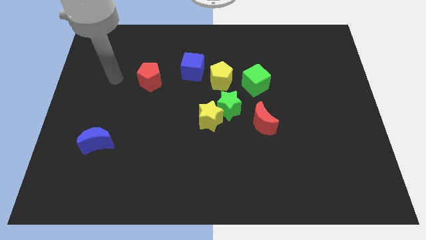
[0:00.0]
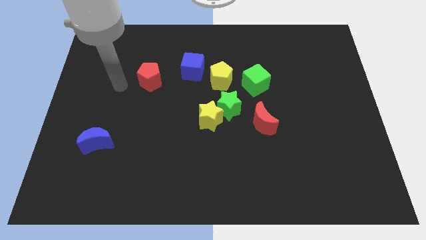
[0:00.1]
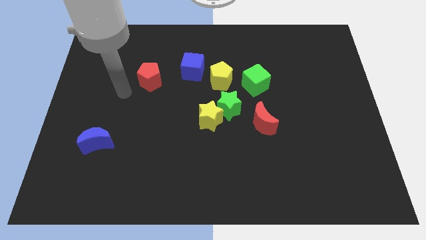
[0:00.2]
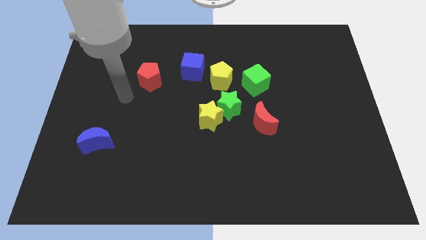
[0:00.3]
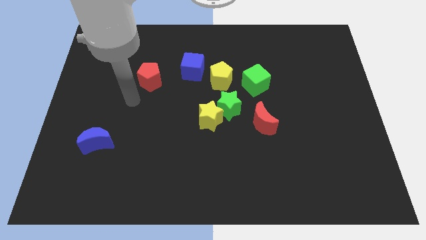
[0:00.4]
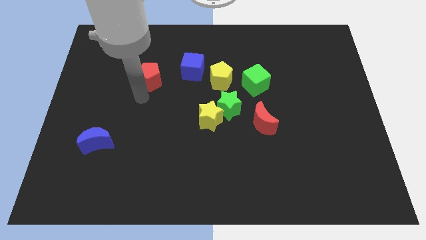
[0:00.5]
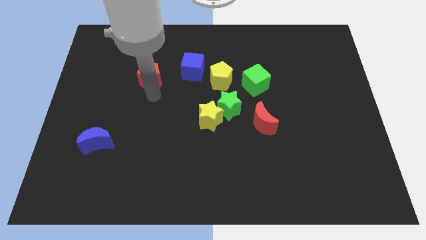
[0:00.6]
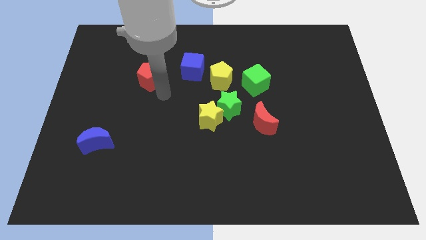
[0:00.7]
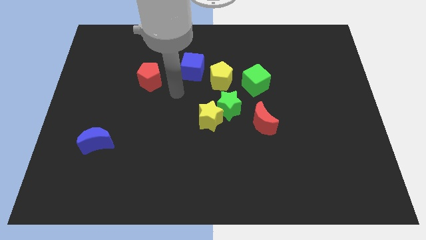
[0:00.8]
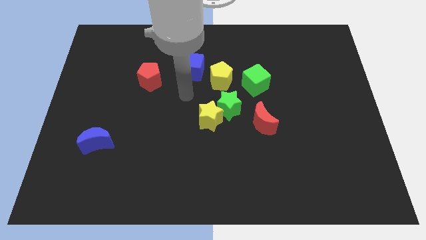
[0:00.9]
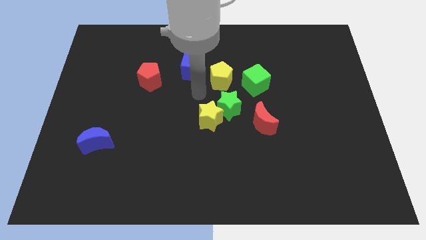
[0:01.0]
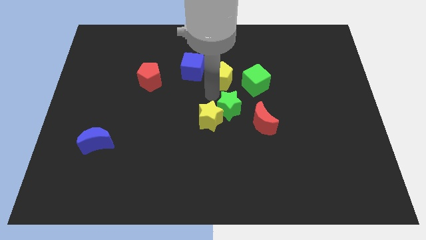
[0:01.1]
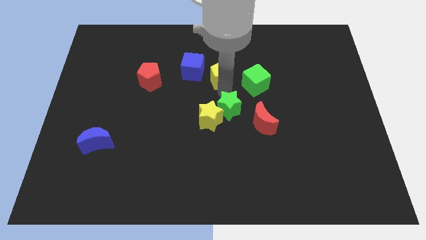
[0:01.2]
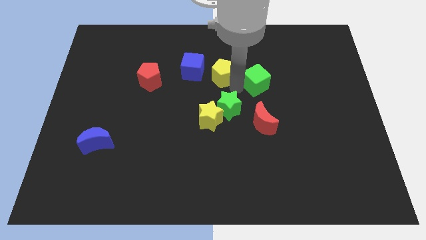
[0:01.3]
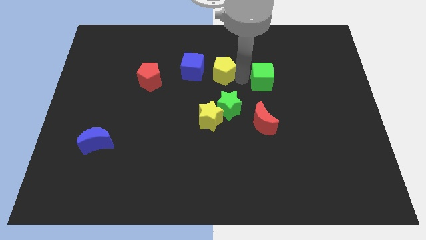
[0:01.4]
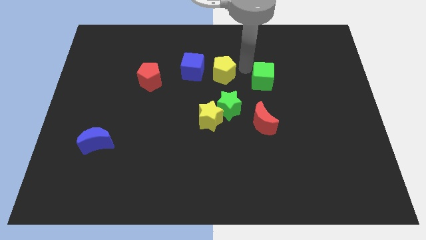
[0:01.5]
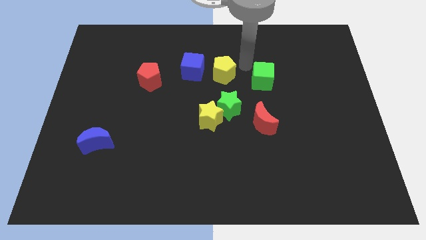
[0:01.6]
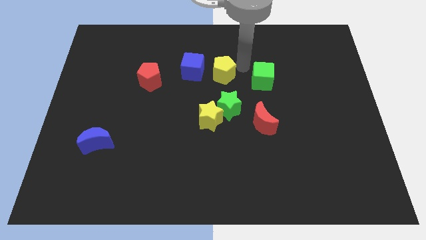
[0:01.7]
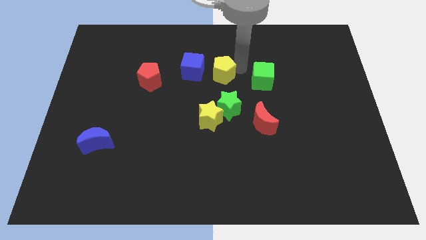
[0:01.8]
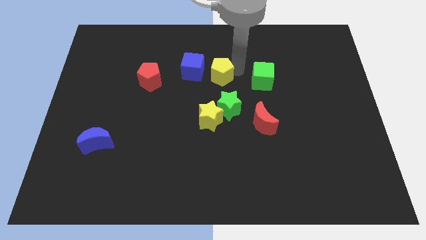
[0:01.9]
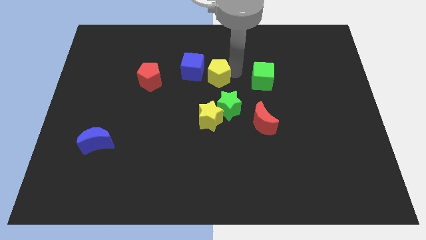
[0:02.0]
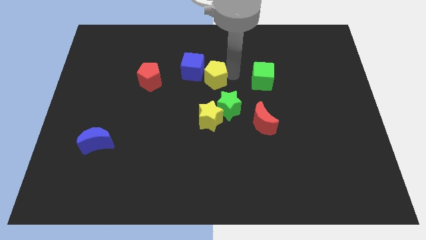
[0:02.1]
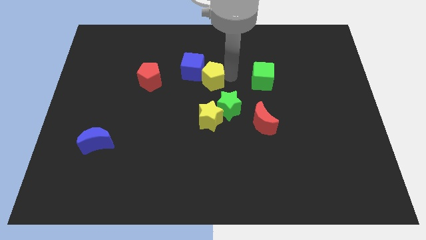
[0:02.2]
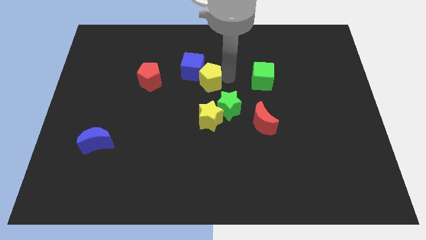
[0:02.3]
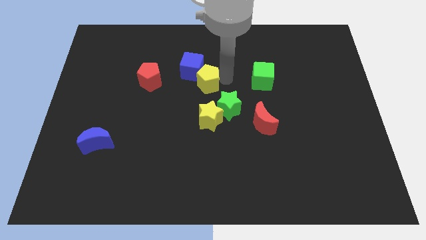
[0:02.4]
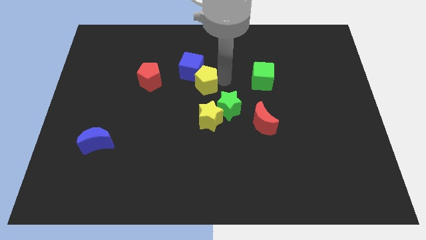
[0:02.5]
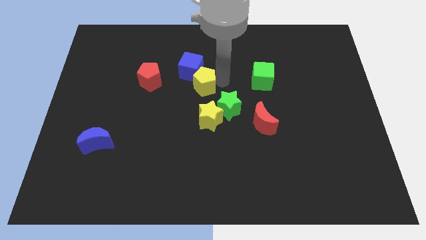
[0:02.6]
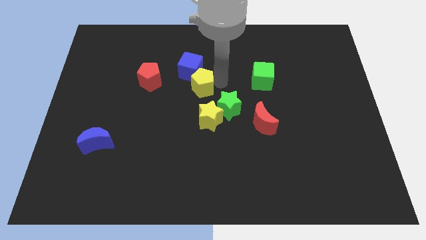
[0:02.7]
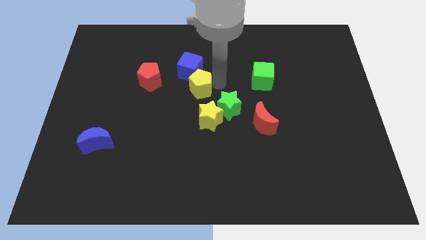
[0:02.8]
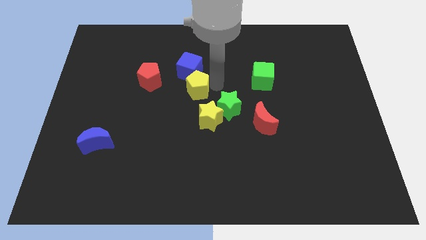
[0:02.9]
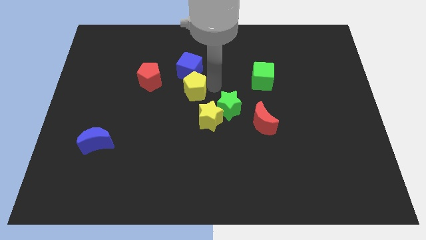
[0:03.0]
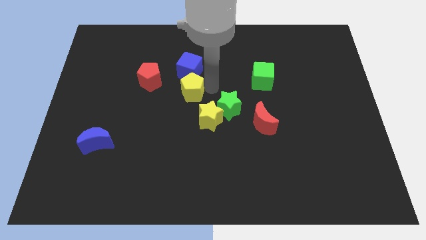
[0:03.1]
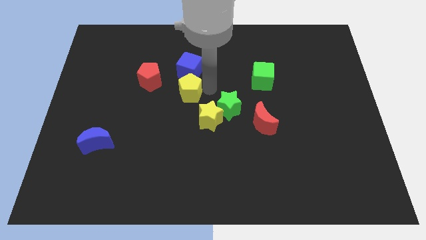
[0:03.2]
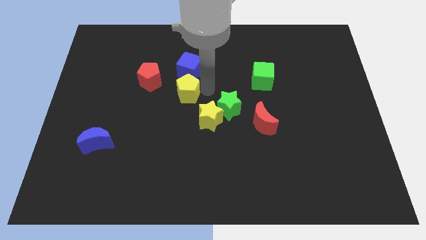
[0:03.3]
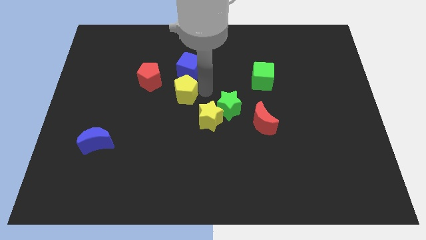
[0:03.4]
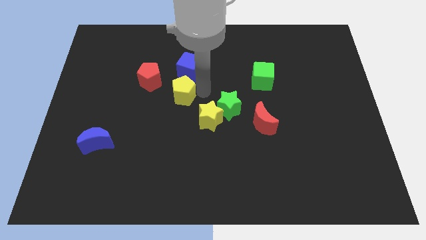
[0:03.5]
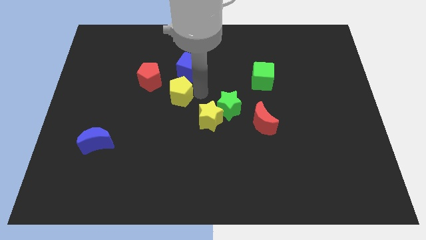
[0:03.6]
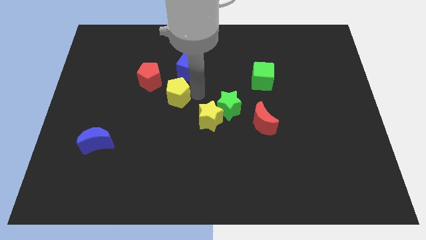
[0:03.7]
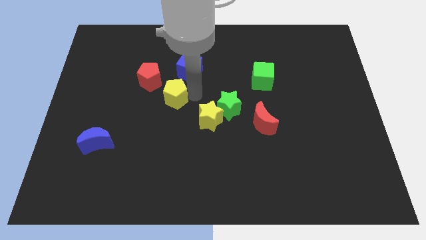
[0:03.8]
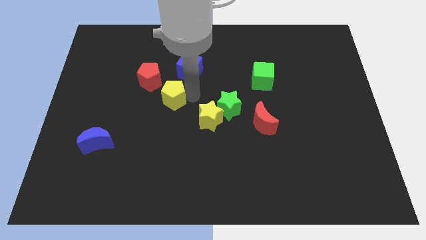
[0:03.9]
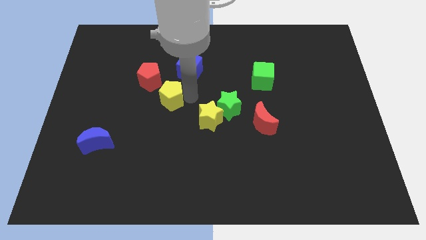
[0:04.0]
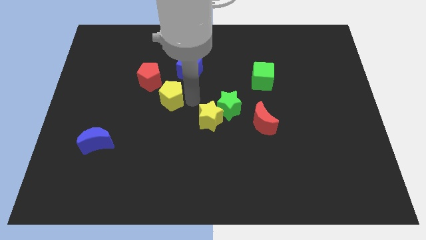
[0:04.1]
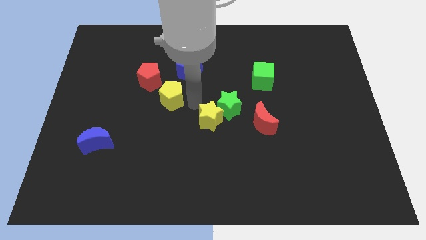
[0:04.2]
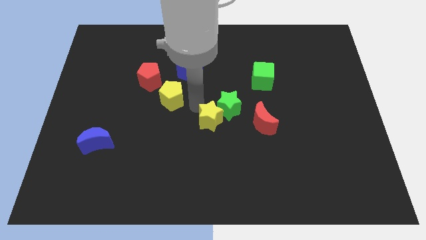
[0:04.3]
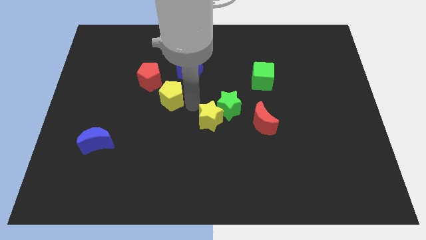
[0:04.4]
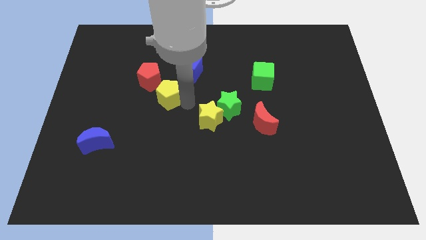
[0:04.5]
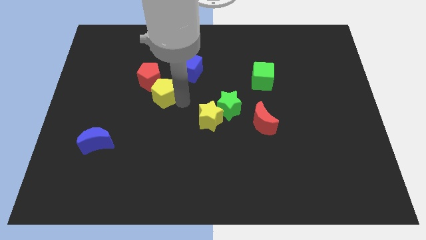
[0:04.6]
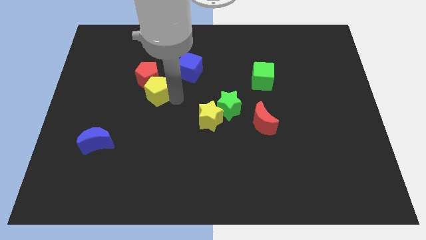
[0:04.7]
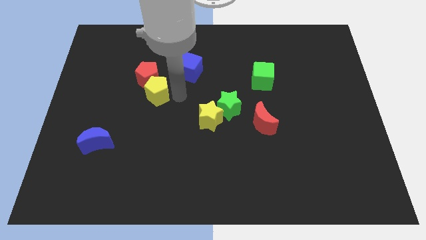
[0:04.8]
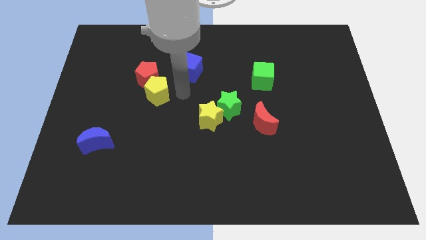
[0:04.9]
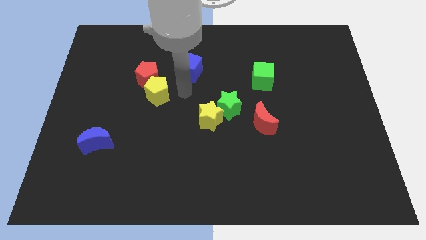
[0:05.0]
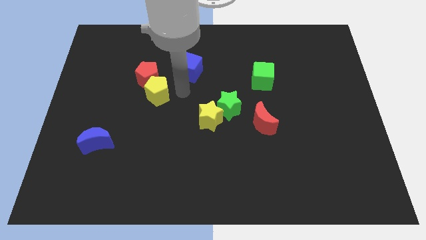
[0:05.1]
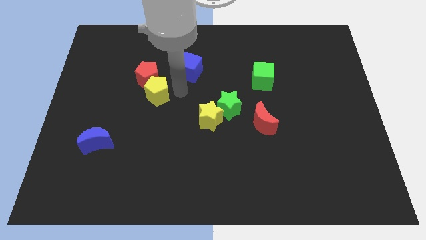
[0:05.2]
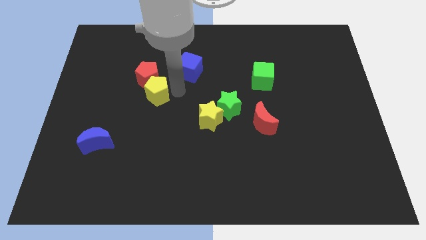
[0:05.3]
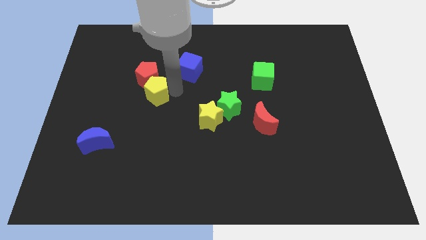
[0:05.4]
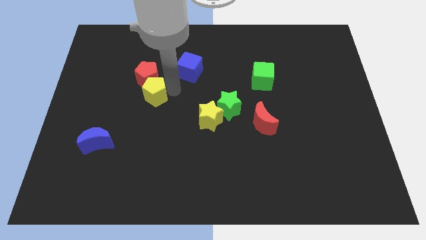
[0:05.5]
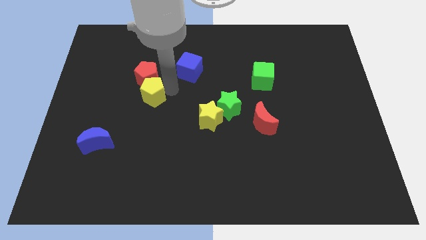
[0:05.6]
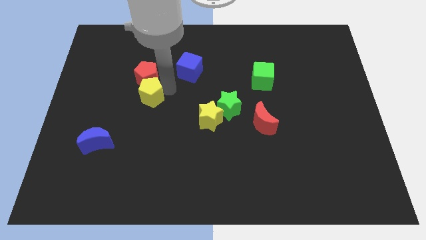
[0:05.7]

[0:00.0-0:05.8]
slide the yellow pentagon diagonally down and to the left of the red pentagon

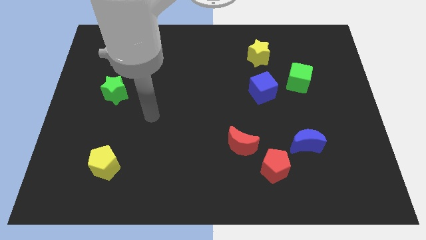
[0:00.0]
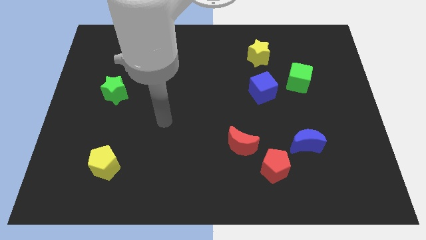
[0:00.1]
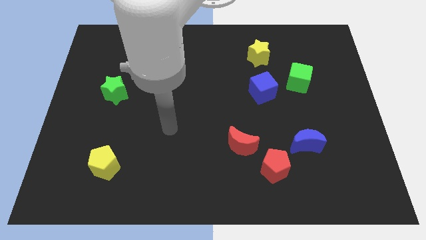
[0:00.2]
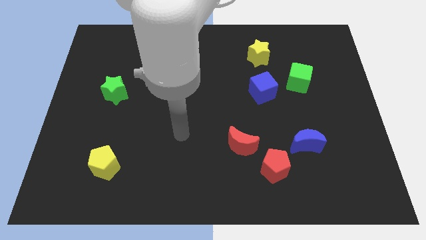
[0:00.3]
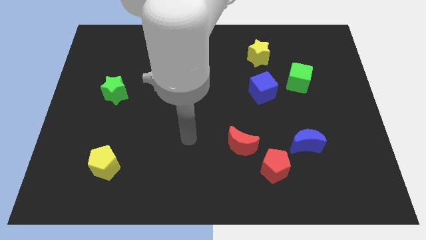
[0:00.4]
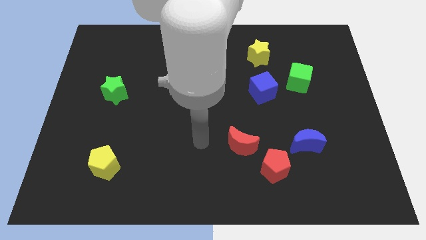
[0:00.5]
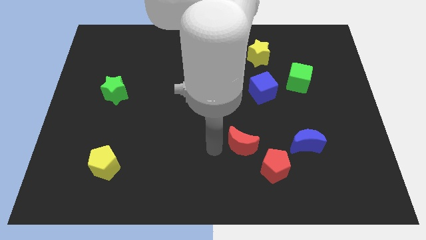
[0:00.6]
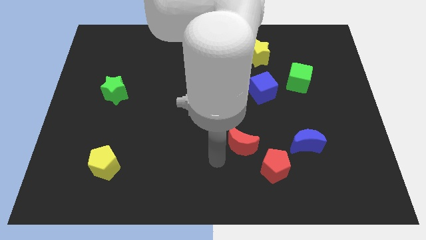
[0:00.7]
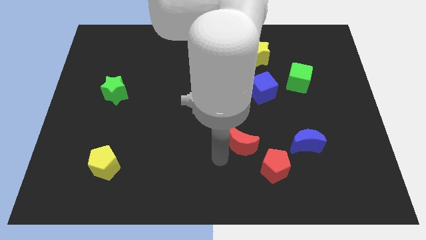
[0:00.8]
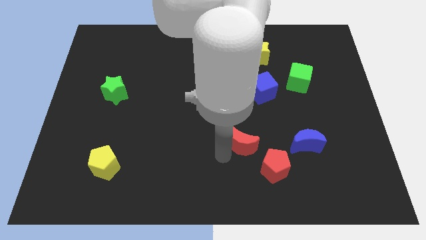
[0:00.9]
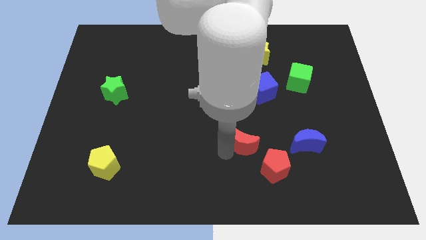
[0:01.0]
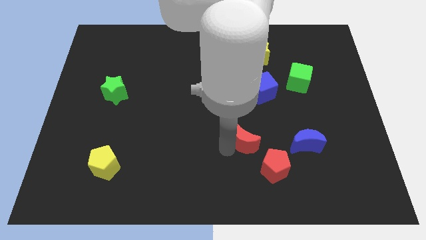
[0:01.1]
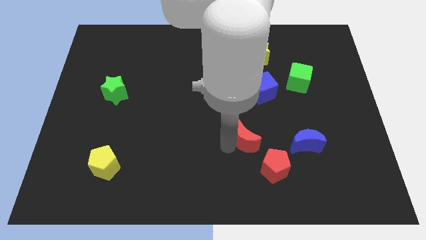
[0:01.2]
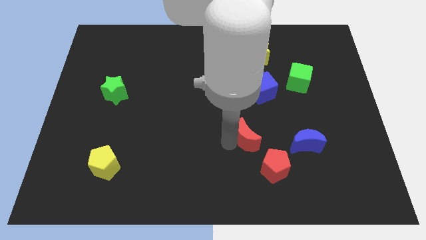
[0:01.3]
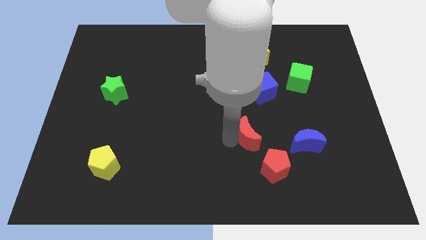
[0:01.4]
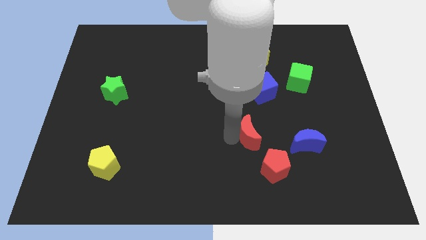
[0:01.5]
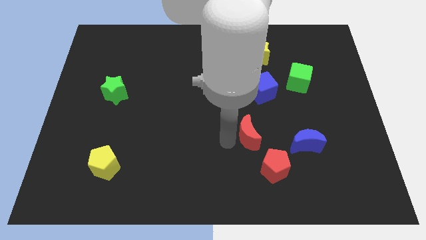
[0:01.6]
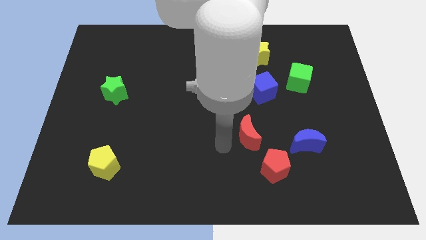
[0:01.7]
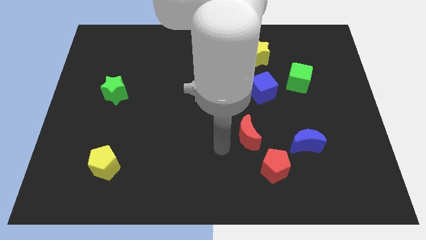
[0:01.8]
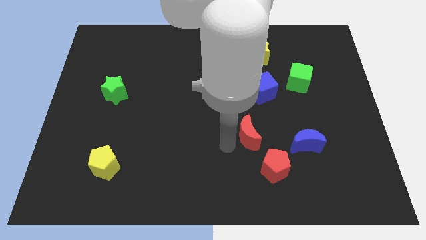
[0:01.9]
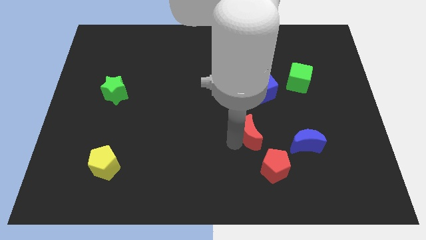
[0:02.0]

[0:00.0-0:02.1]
slide the red moon to the top of the red pentagon
